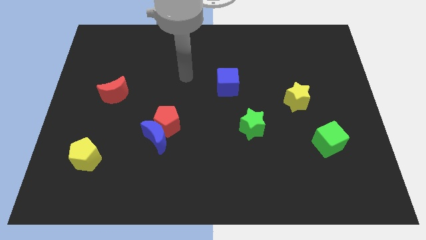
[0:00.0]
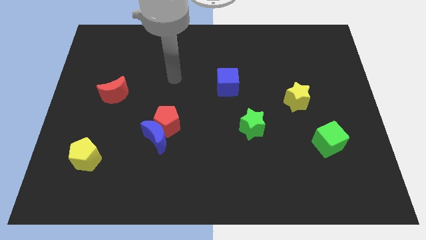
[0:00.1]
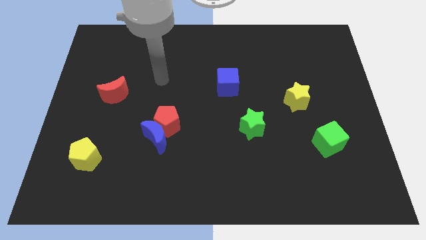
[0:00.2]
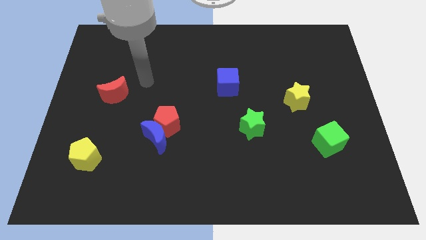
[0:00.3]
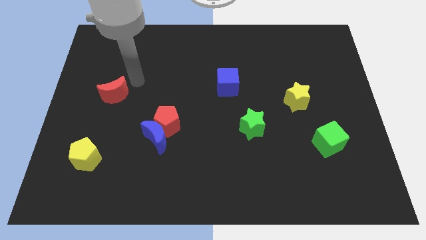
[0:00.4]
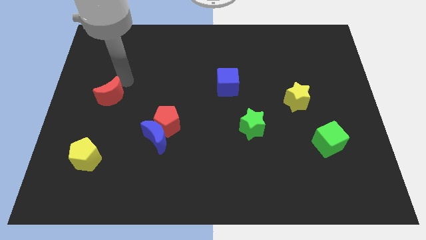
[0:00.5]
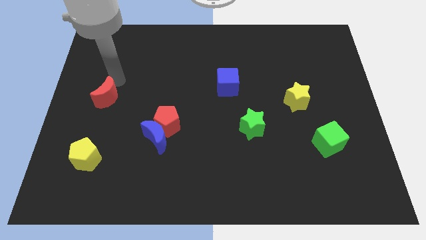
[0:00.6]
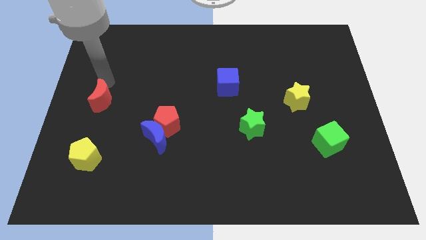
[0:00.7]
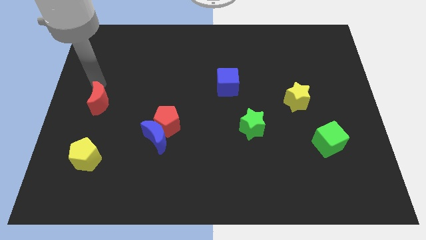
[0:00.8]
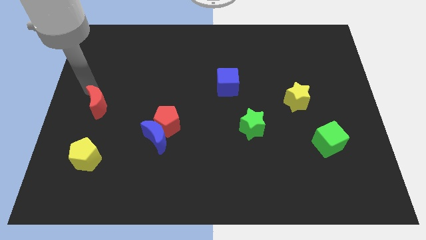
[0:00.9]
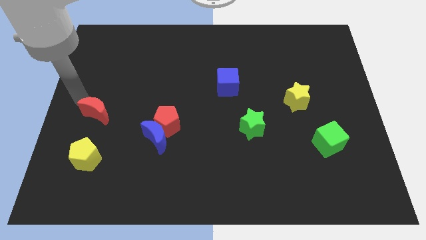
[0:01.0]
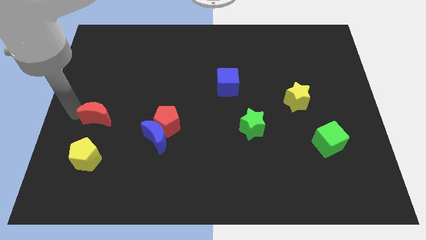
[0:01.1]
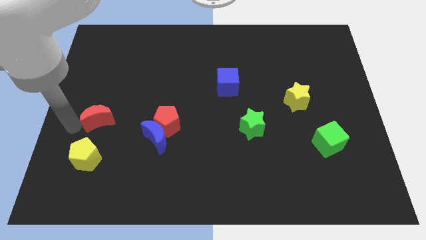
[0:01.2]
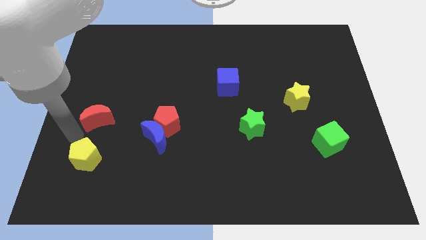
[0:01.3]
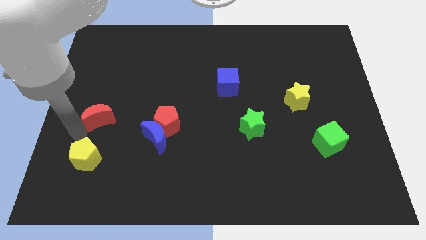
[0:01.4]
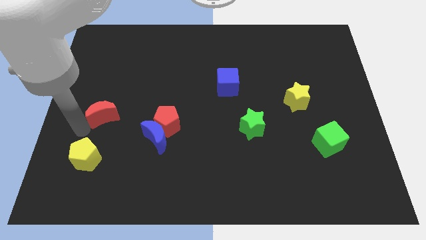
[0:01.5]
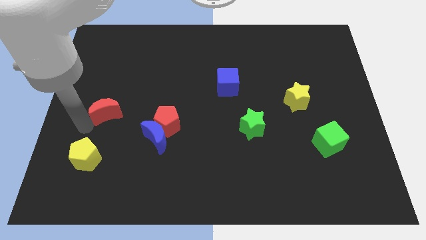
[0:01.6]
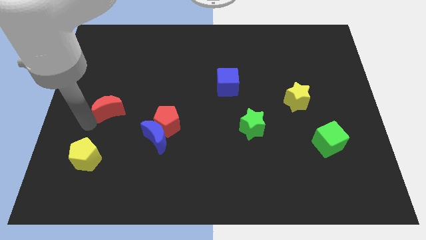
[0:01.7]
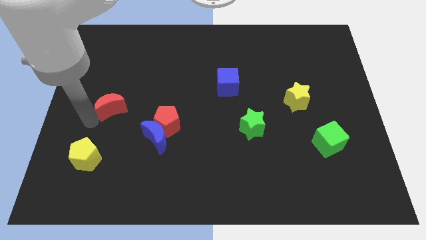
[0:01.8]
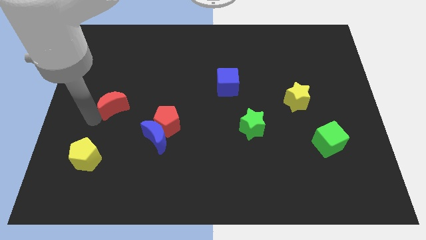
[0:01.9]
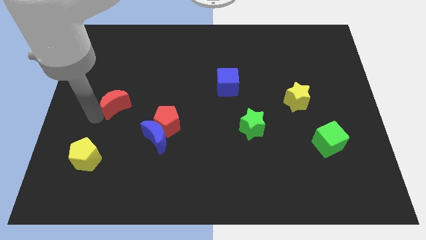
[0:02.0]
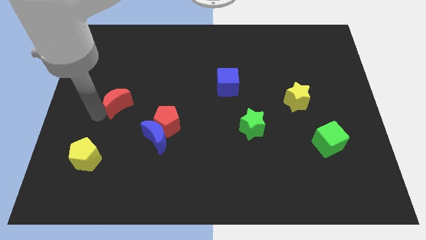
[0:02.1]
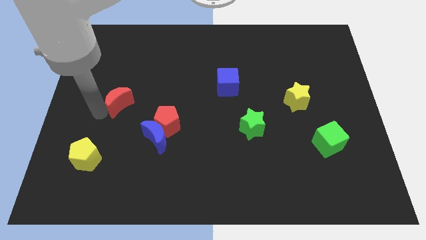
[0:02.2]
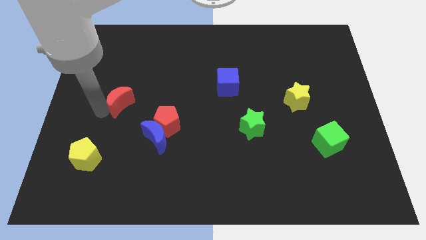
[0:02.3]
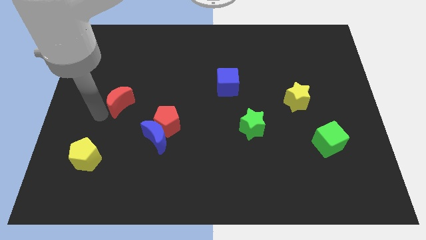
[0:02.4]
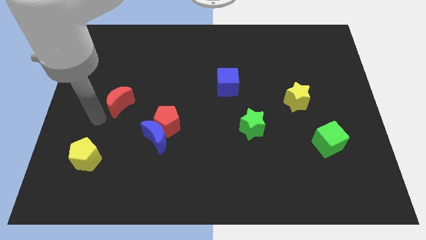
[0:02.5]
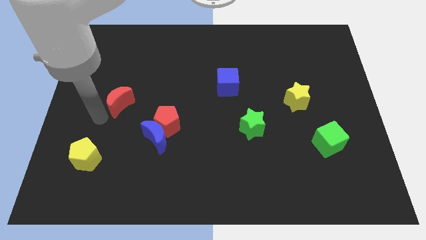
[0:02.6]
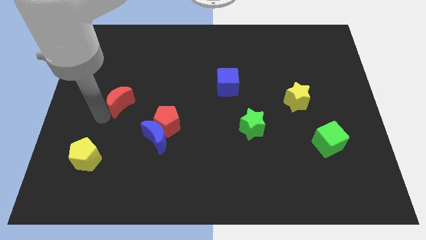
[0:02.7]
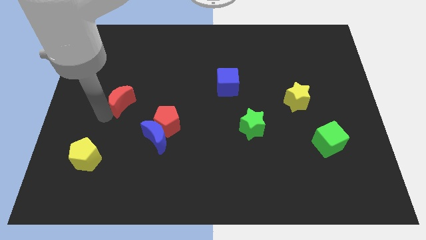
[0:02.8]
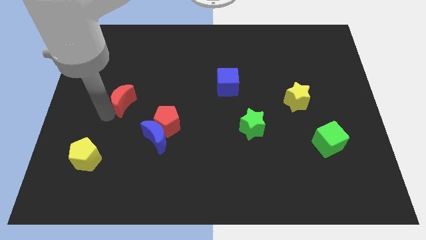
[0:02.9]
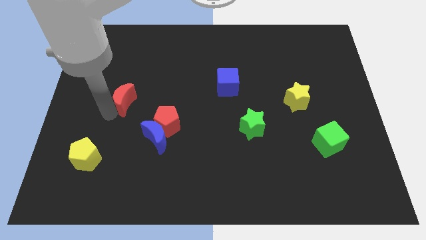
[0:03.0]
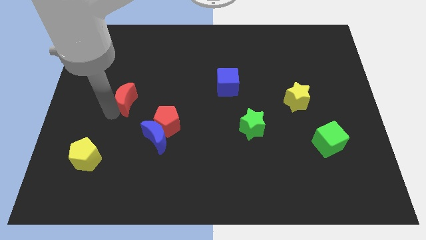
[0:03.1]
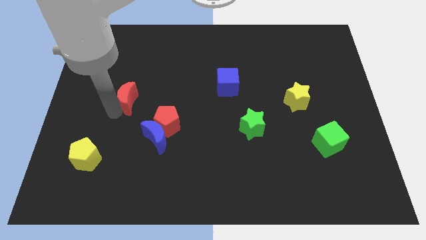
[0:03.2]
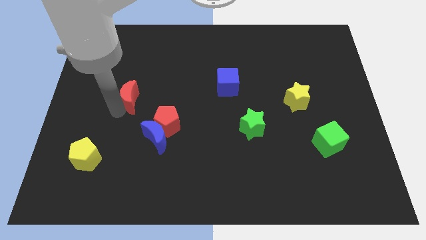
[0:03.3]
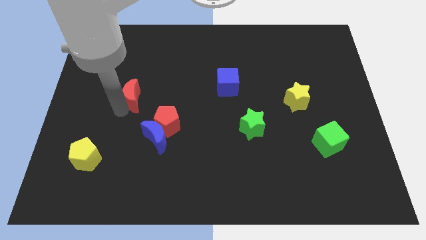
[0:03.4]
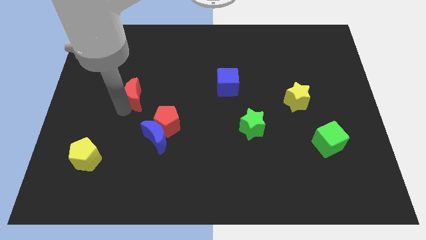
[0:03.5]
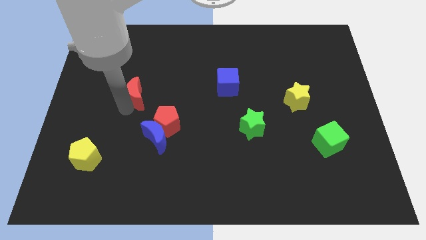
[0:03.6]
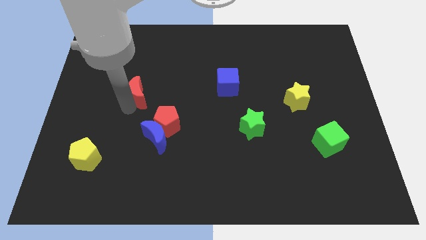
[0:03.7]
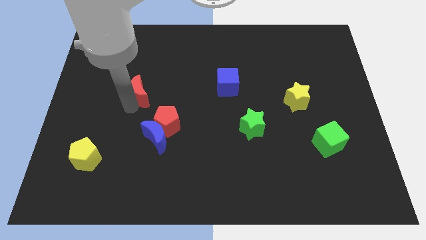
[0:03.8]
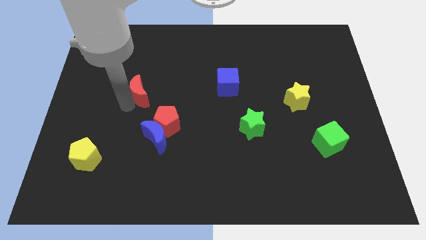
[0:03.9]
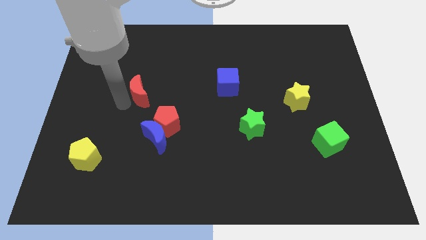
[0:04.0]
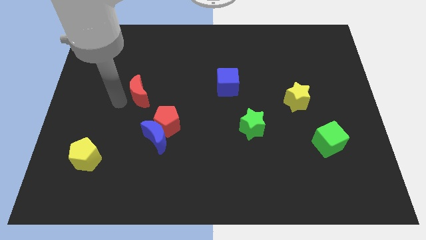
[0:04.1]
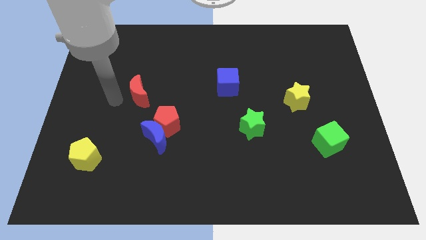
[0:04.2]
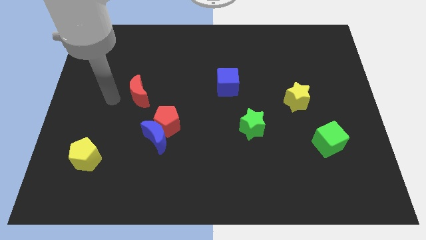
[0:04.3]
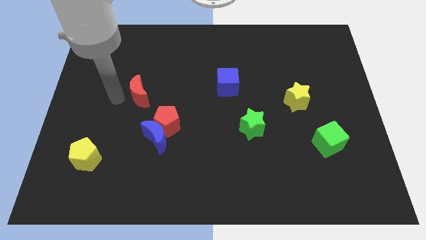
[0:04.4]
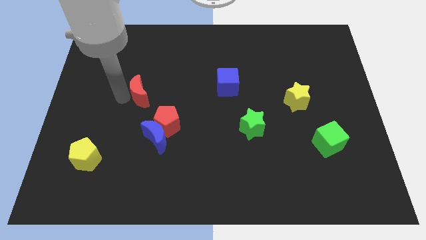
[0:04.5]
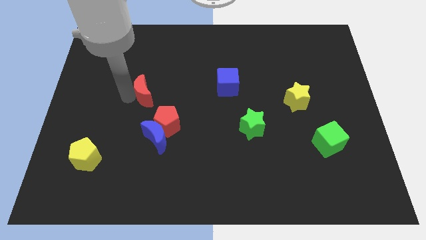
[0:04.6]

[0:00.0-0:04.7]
move the red moon right somewhat

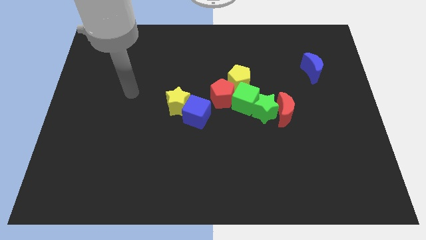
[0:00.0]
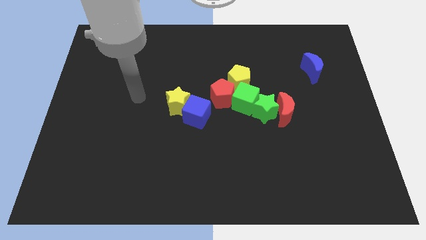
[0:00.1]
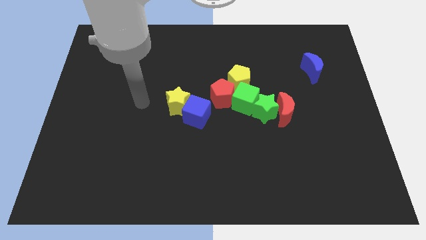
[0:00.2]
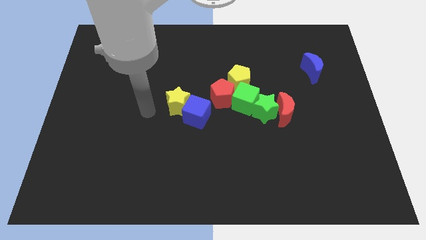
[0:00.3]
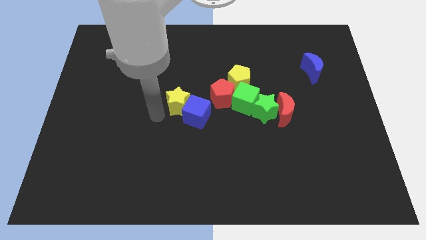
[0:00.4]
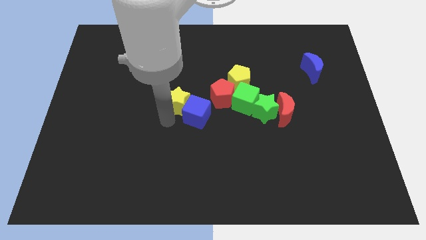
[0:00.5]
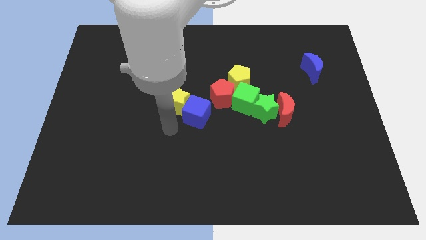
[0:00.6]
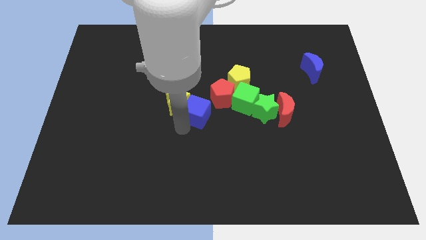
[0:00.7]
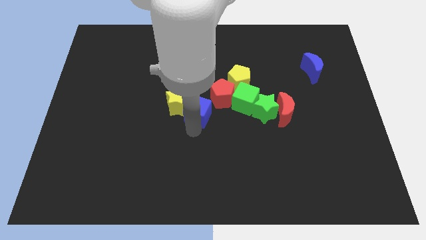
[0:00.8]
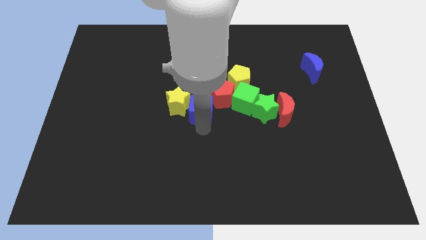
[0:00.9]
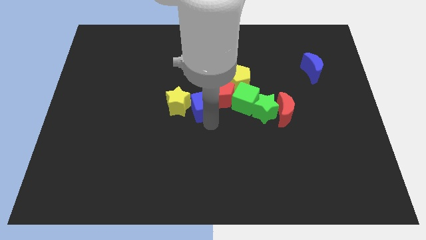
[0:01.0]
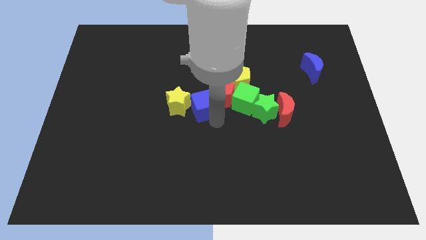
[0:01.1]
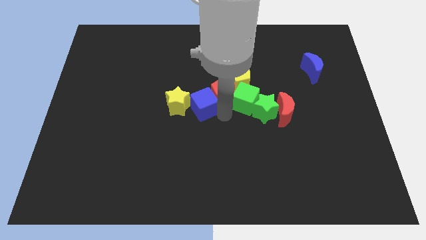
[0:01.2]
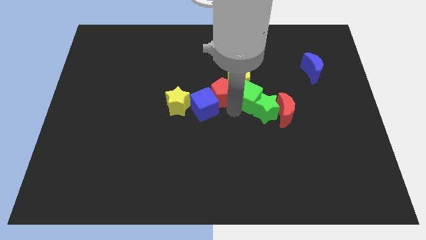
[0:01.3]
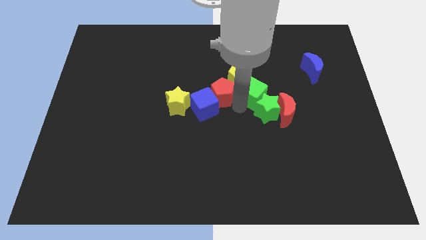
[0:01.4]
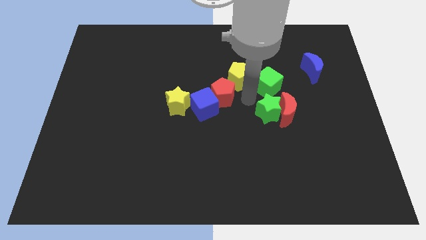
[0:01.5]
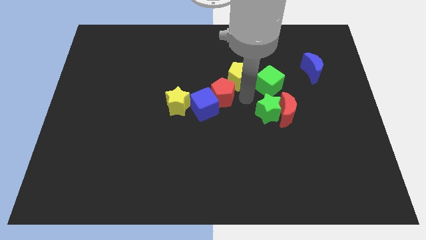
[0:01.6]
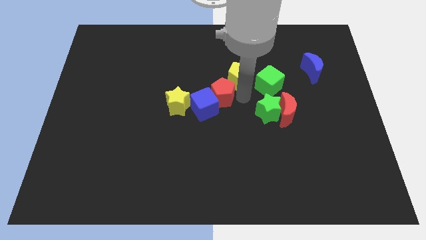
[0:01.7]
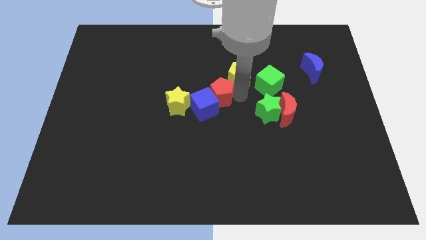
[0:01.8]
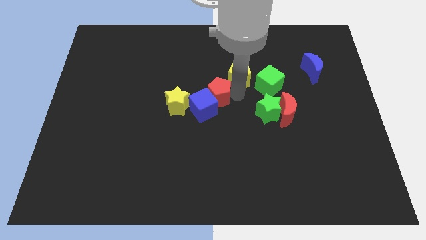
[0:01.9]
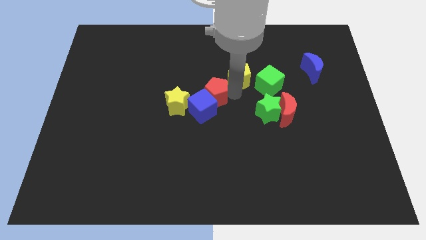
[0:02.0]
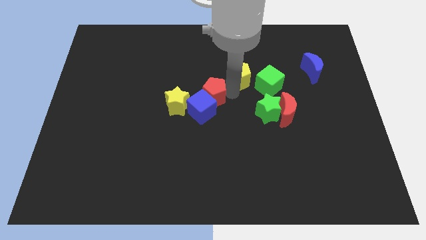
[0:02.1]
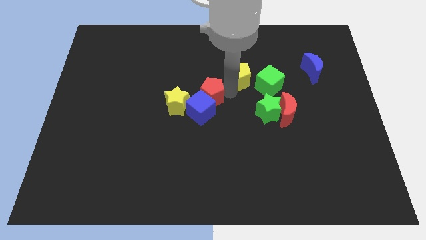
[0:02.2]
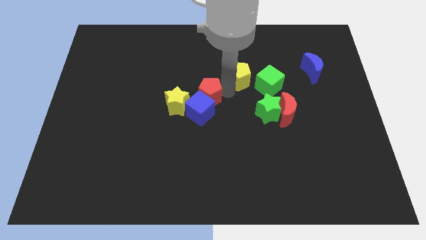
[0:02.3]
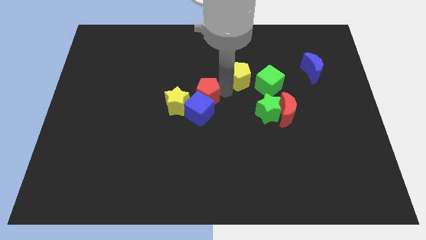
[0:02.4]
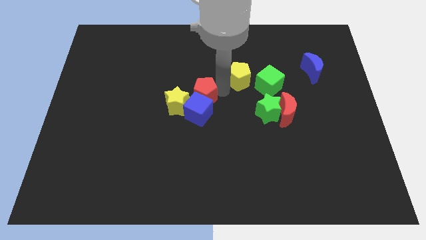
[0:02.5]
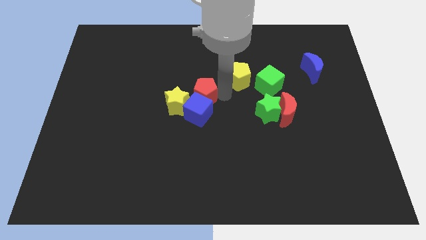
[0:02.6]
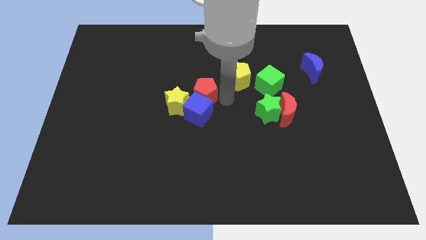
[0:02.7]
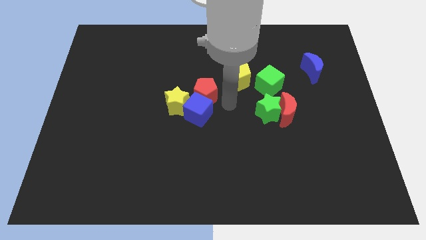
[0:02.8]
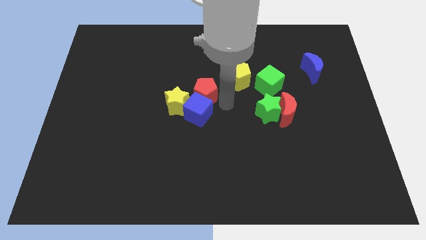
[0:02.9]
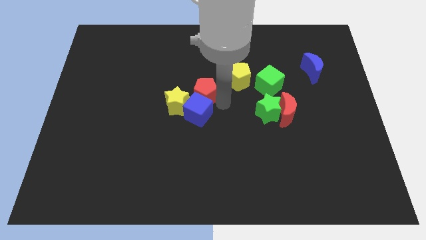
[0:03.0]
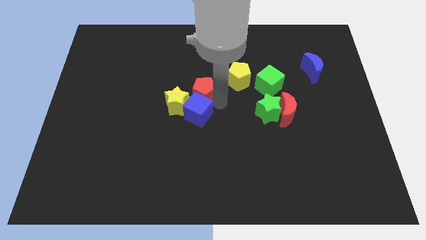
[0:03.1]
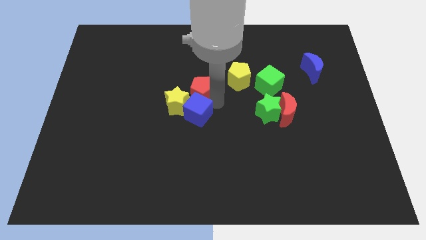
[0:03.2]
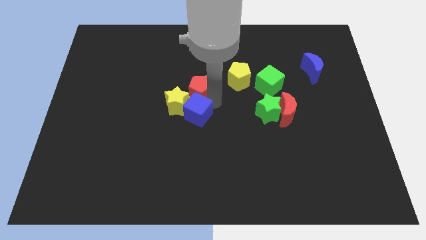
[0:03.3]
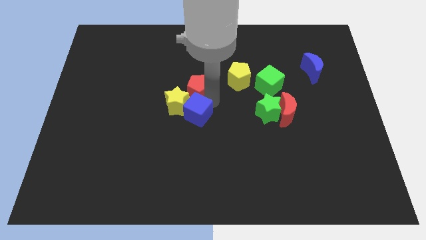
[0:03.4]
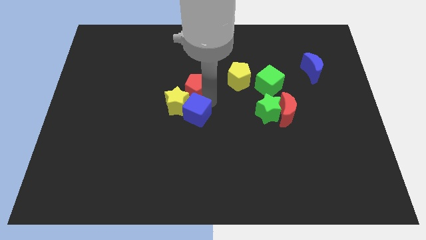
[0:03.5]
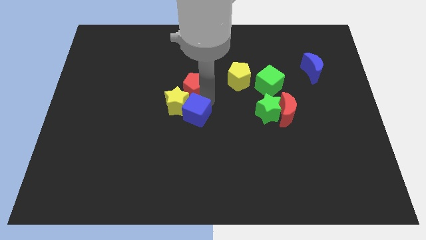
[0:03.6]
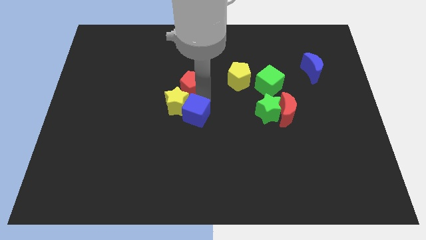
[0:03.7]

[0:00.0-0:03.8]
slightly move the red pentagon left
